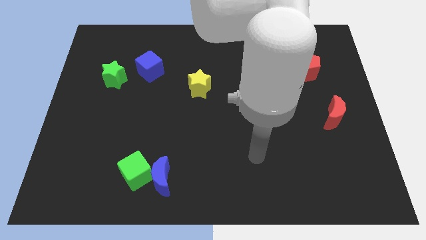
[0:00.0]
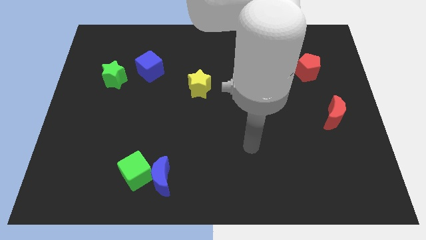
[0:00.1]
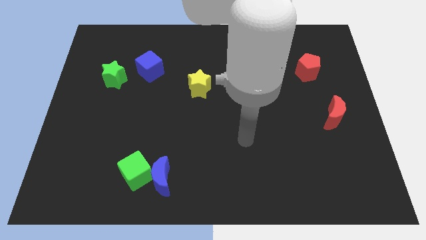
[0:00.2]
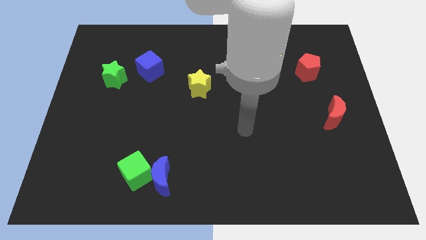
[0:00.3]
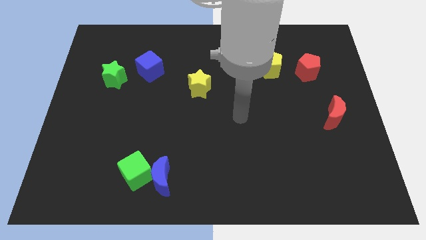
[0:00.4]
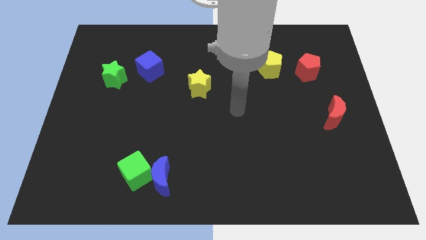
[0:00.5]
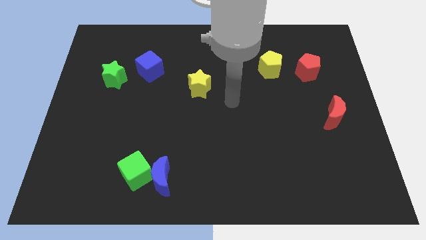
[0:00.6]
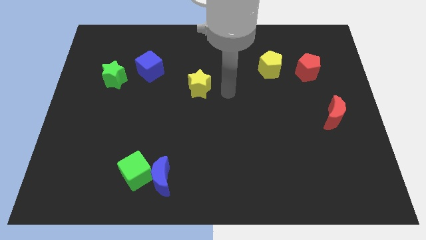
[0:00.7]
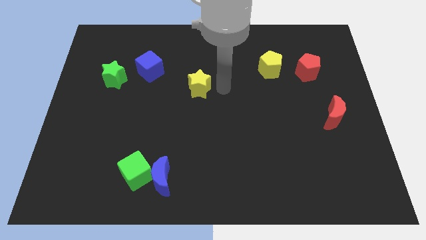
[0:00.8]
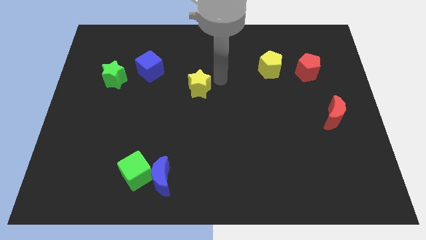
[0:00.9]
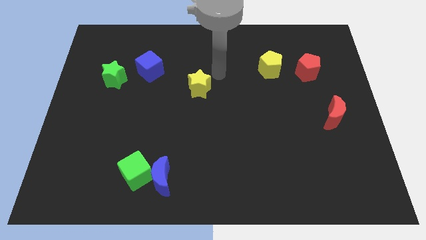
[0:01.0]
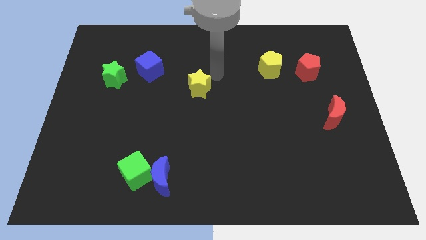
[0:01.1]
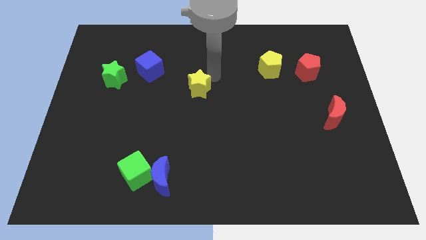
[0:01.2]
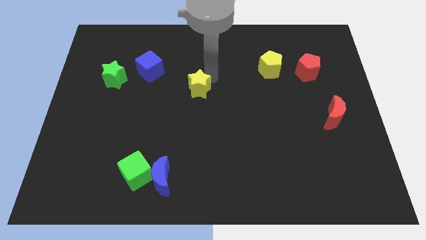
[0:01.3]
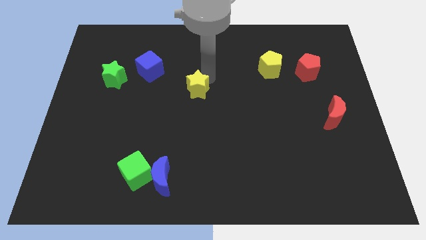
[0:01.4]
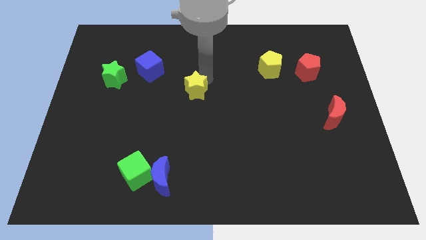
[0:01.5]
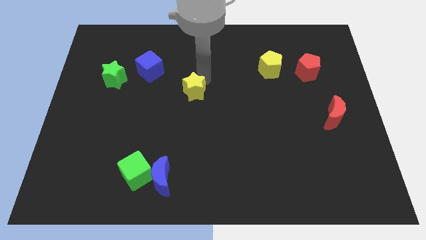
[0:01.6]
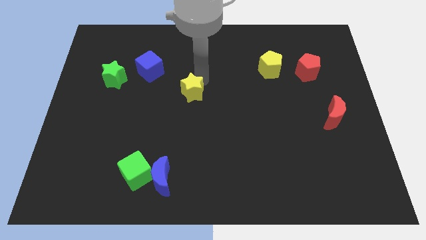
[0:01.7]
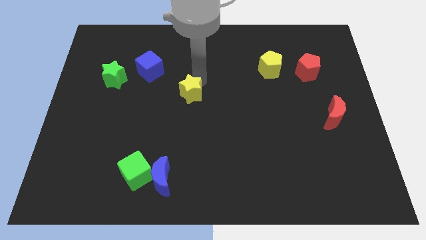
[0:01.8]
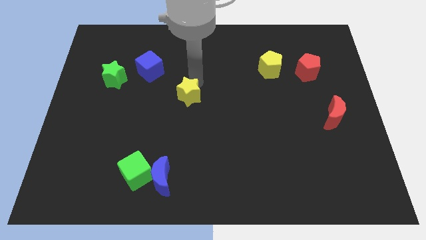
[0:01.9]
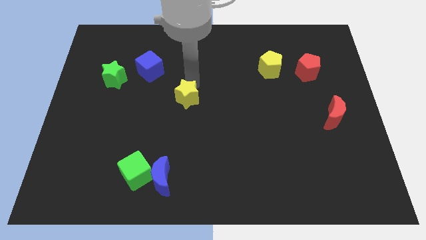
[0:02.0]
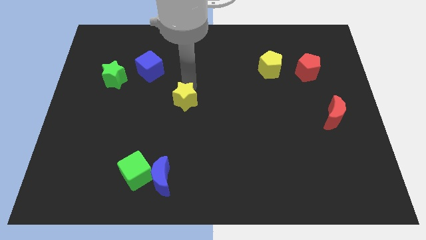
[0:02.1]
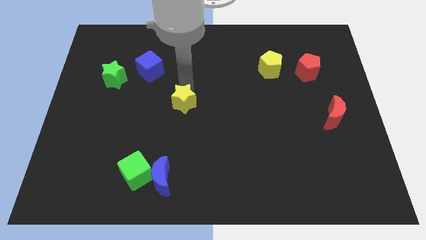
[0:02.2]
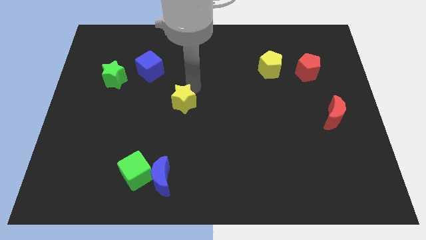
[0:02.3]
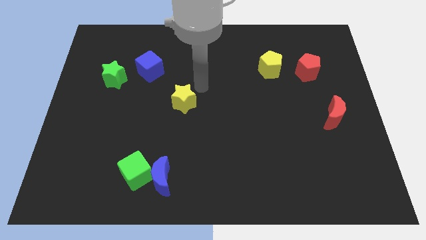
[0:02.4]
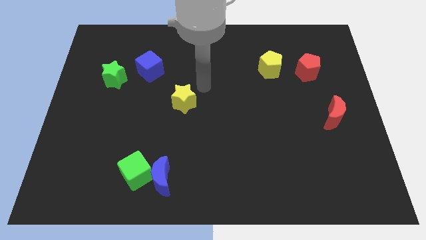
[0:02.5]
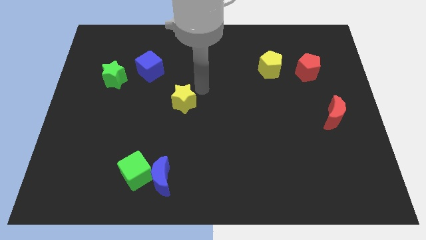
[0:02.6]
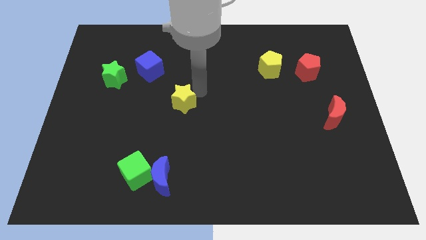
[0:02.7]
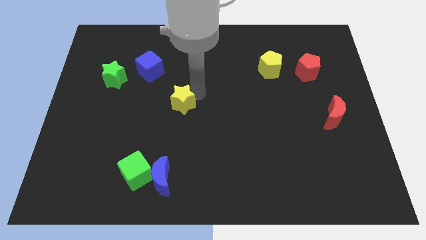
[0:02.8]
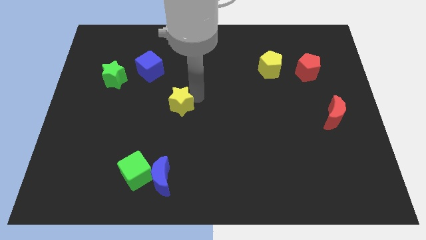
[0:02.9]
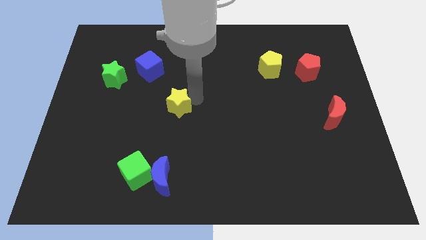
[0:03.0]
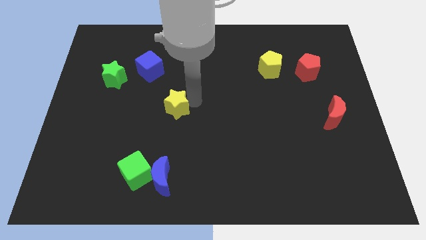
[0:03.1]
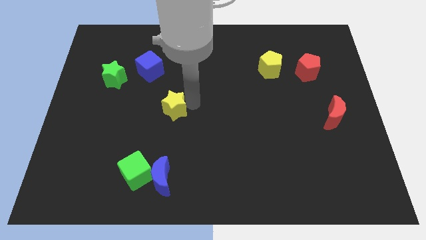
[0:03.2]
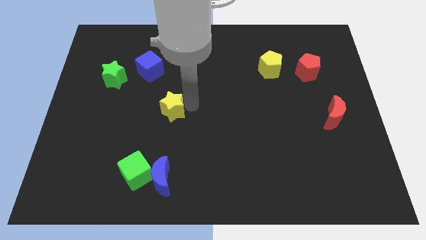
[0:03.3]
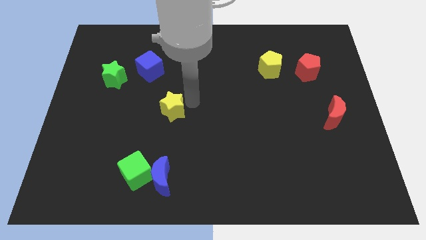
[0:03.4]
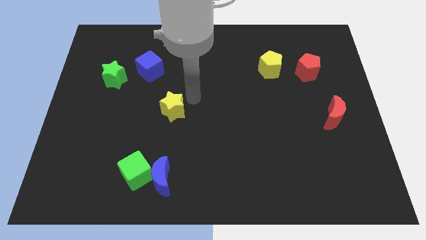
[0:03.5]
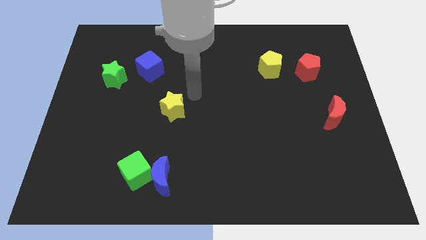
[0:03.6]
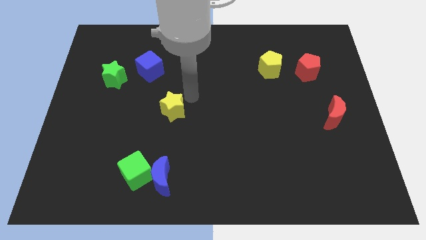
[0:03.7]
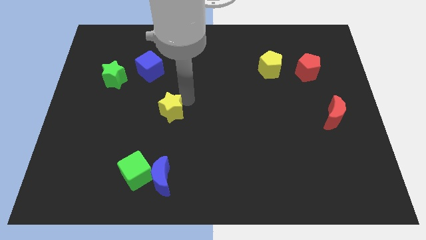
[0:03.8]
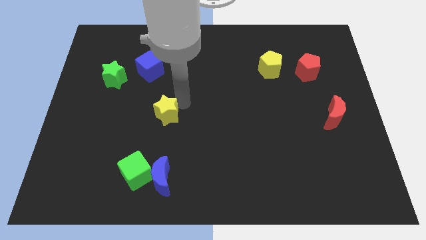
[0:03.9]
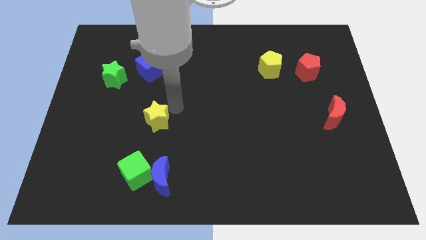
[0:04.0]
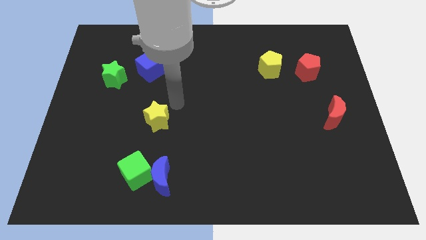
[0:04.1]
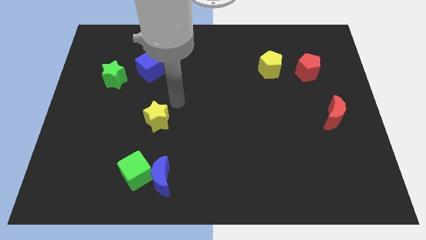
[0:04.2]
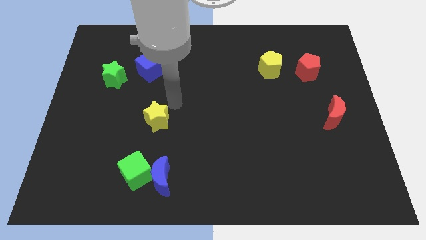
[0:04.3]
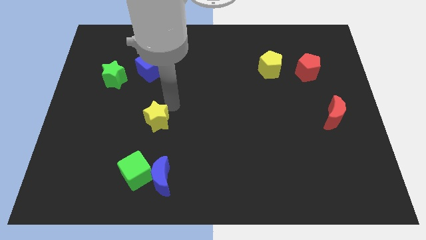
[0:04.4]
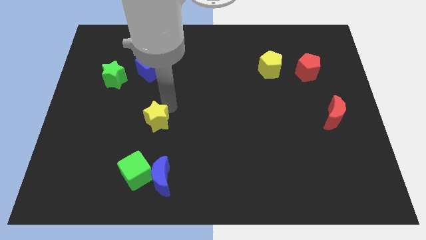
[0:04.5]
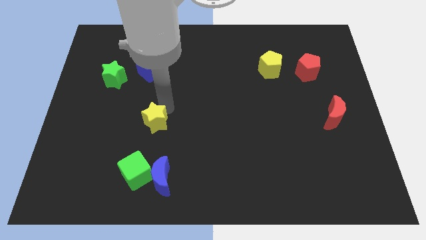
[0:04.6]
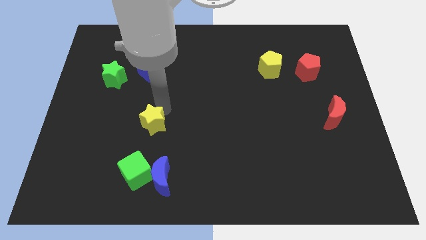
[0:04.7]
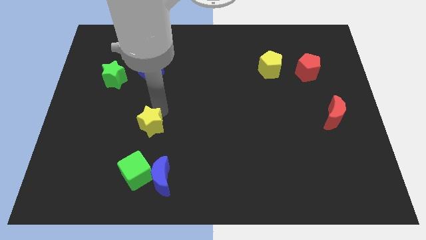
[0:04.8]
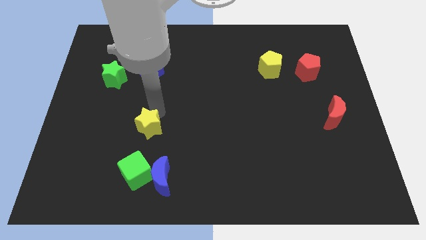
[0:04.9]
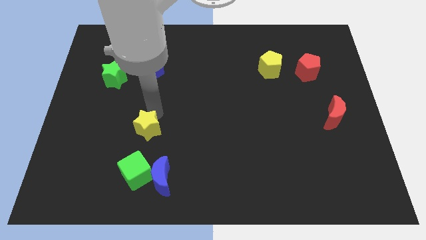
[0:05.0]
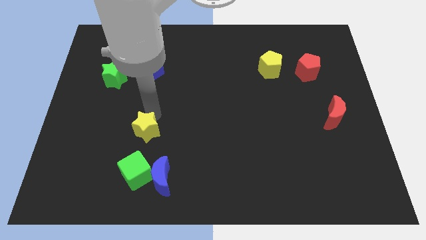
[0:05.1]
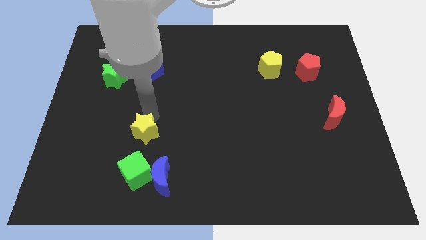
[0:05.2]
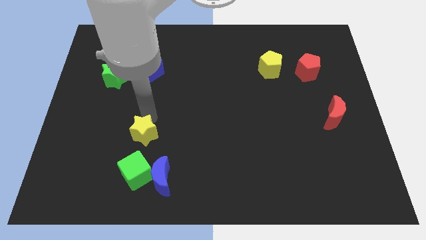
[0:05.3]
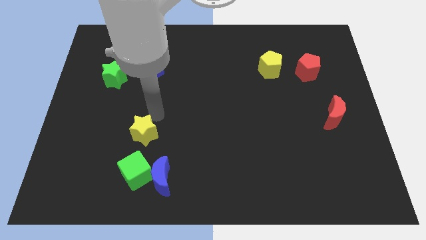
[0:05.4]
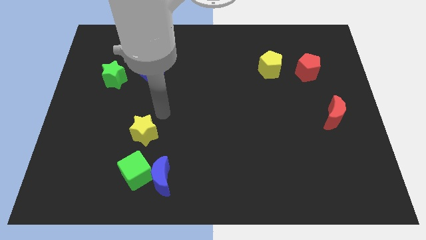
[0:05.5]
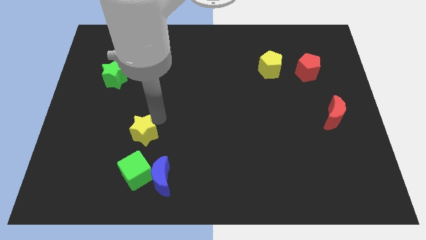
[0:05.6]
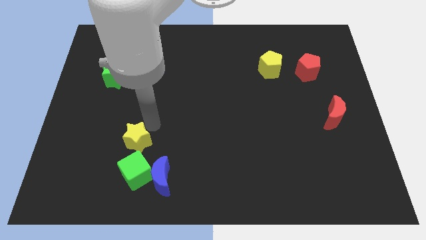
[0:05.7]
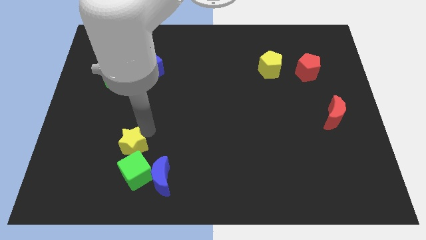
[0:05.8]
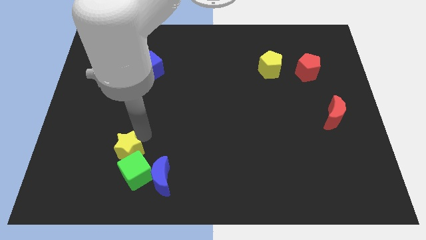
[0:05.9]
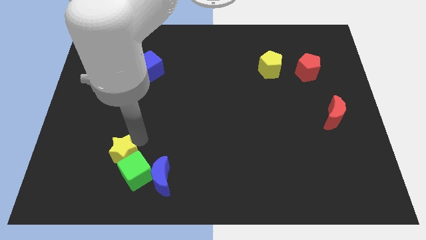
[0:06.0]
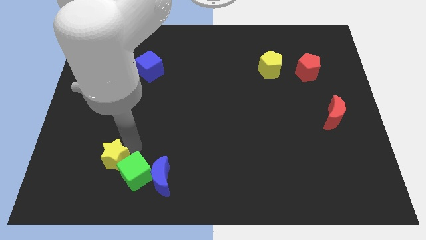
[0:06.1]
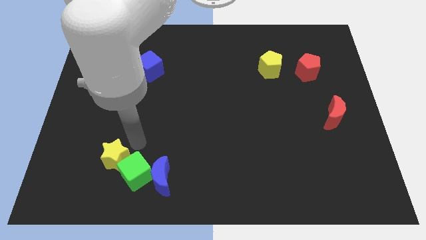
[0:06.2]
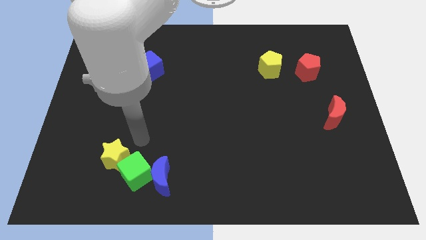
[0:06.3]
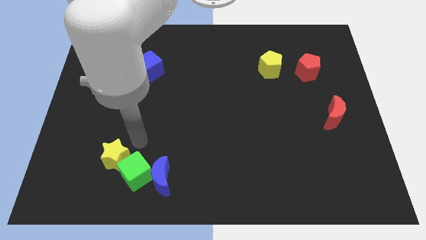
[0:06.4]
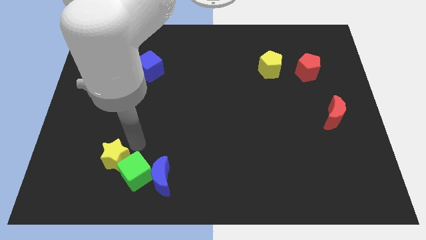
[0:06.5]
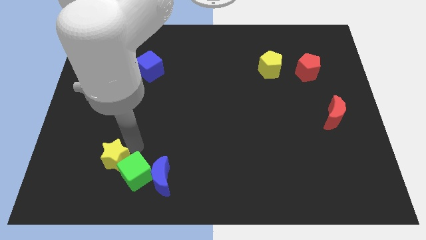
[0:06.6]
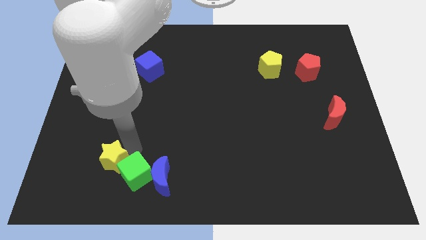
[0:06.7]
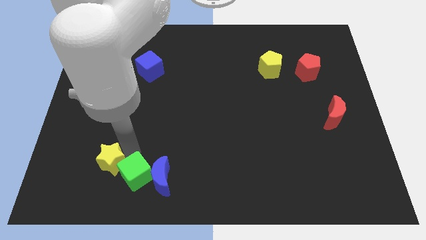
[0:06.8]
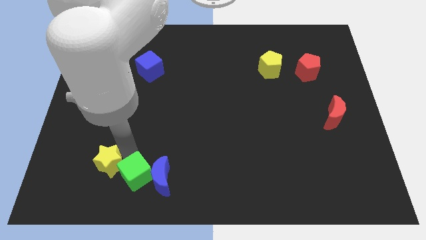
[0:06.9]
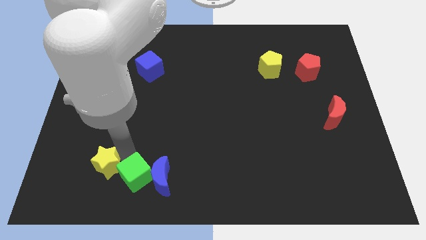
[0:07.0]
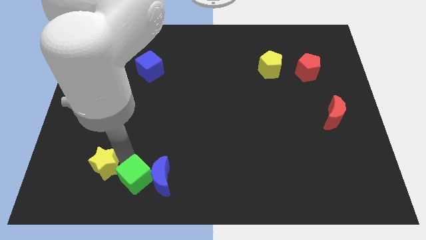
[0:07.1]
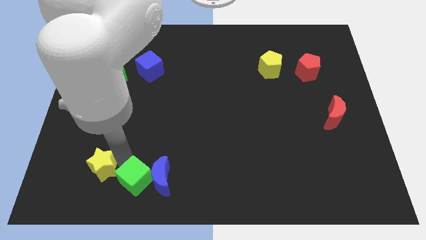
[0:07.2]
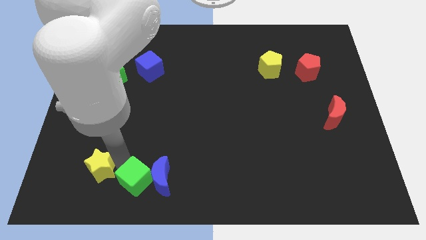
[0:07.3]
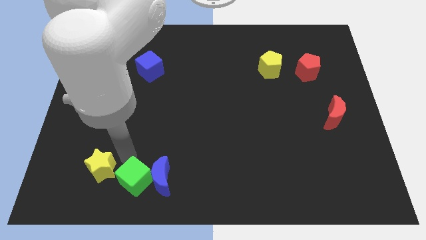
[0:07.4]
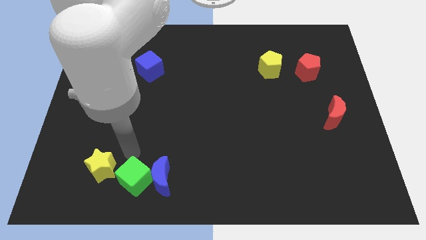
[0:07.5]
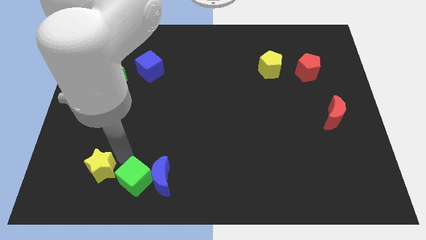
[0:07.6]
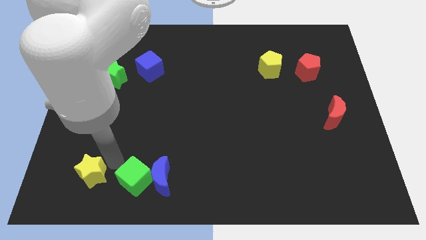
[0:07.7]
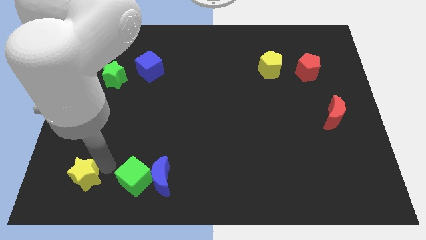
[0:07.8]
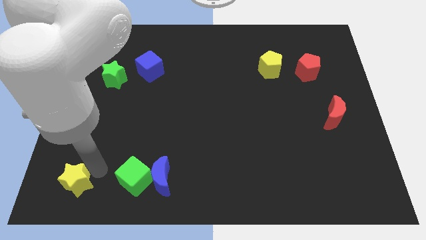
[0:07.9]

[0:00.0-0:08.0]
slide the yellow star to the lower left corner
